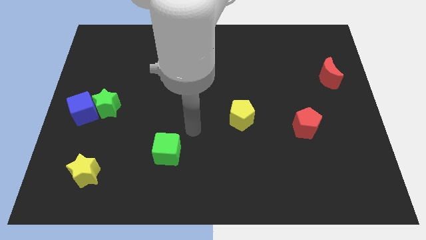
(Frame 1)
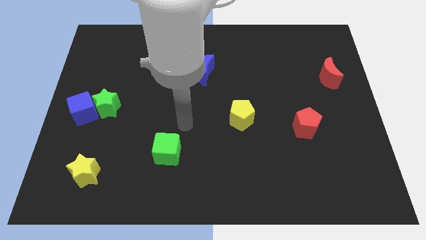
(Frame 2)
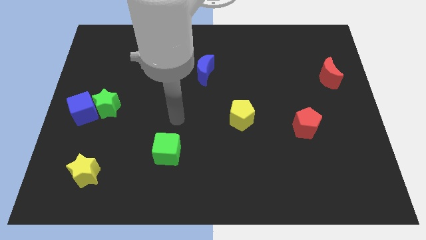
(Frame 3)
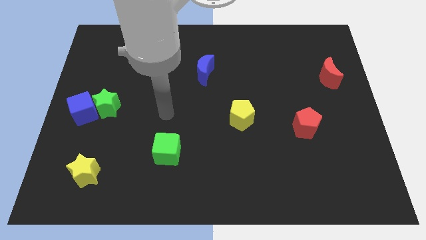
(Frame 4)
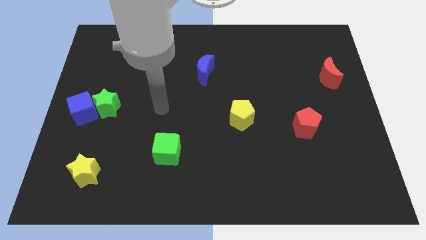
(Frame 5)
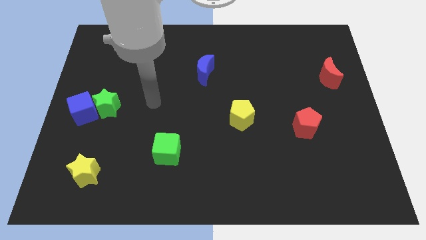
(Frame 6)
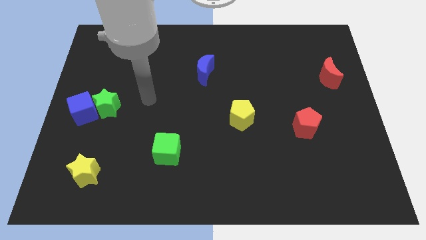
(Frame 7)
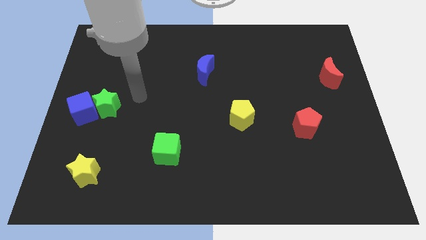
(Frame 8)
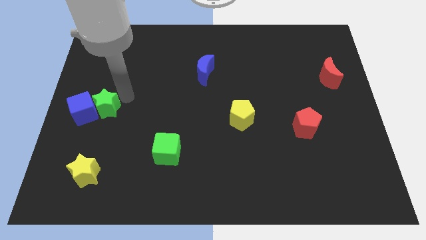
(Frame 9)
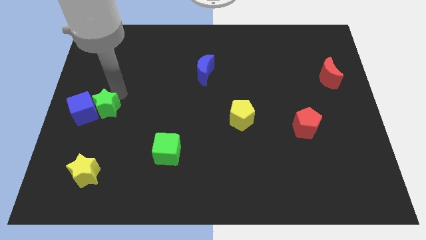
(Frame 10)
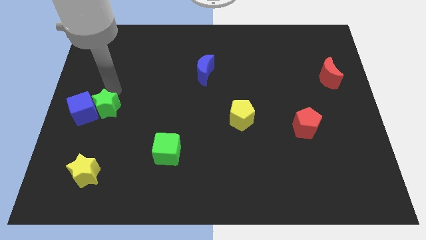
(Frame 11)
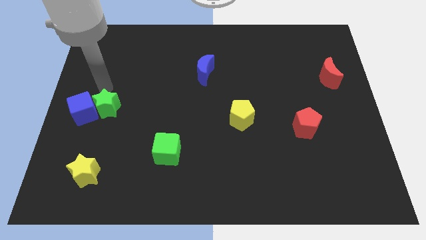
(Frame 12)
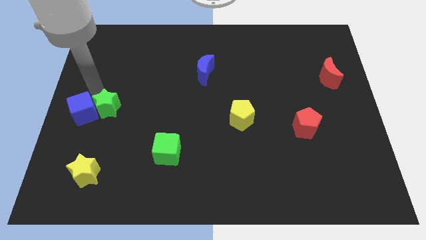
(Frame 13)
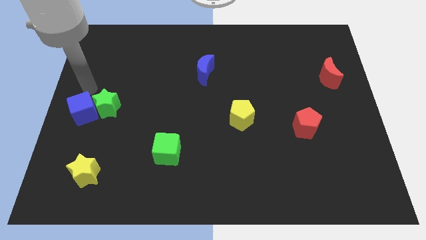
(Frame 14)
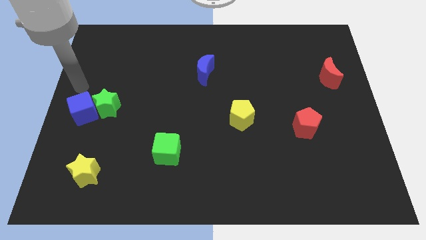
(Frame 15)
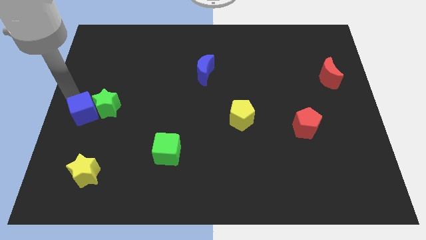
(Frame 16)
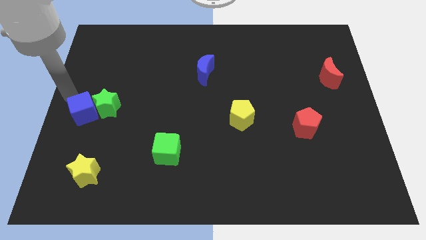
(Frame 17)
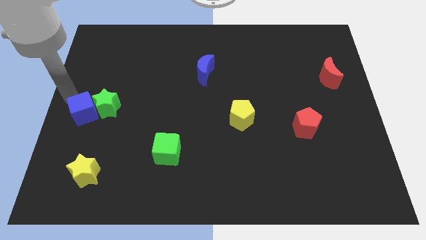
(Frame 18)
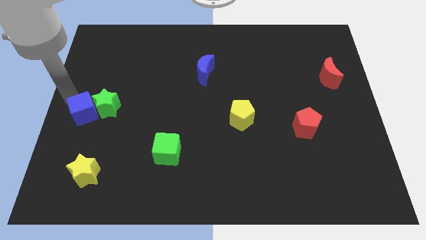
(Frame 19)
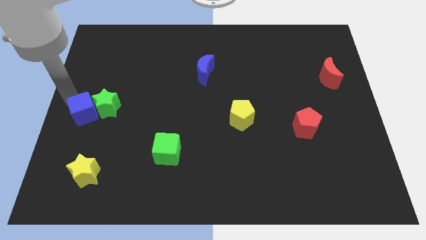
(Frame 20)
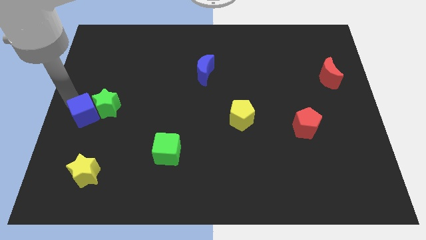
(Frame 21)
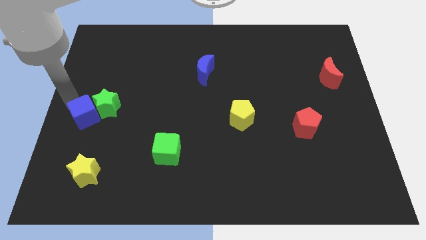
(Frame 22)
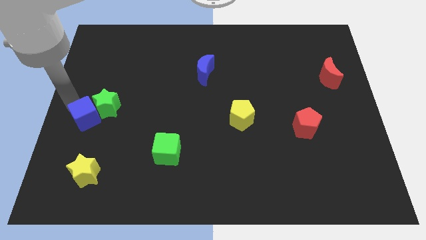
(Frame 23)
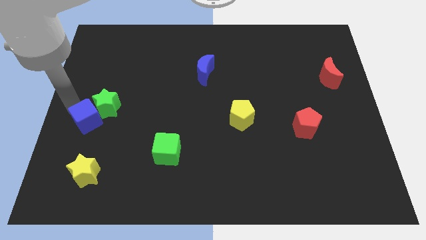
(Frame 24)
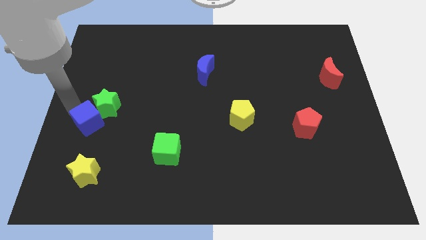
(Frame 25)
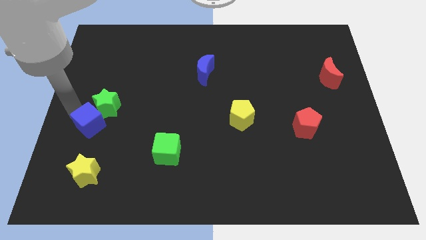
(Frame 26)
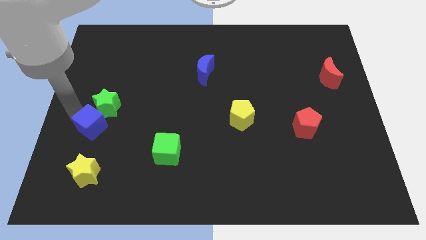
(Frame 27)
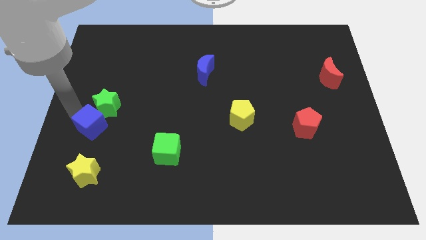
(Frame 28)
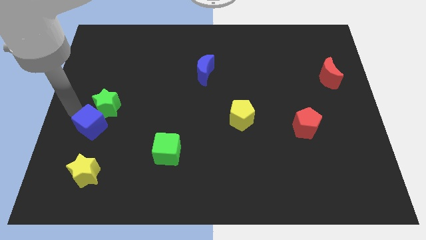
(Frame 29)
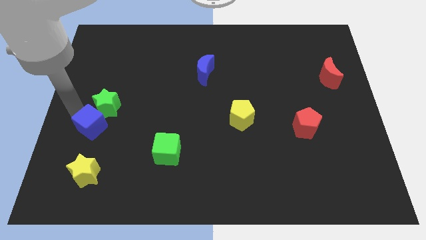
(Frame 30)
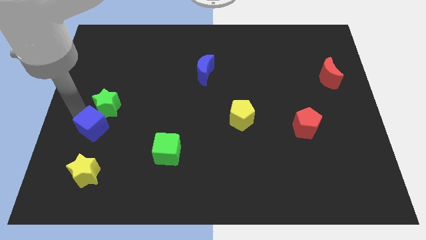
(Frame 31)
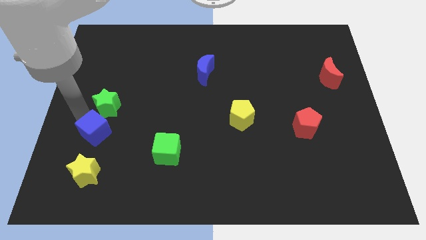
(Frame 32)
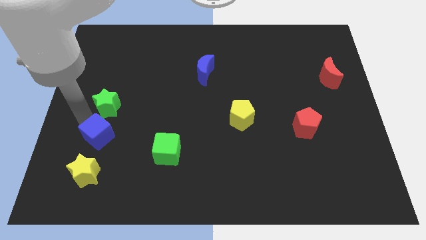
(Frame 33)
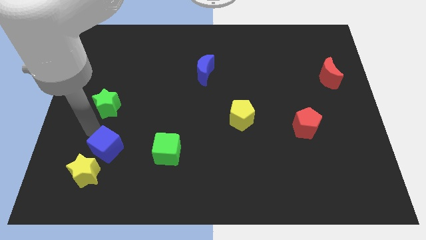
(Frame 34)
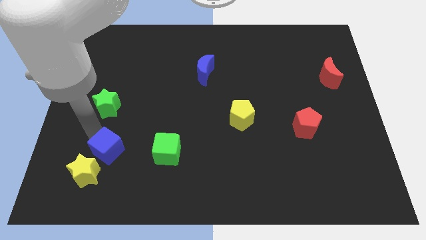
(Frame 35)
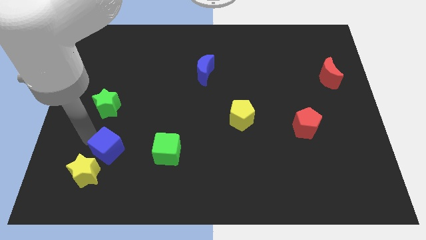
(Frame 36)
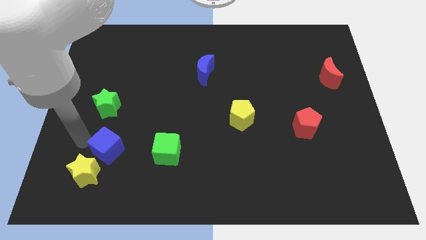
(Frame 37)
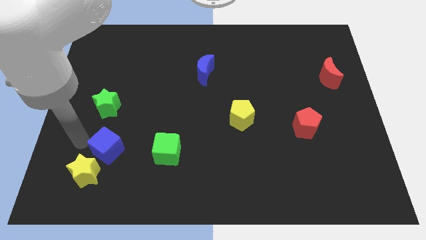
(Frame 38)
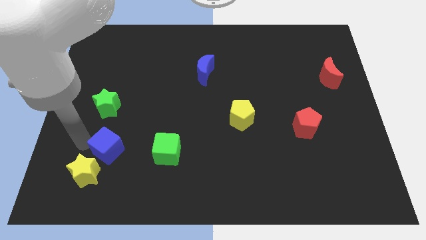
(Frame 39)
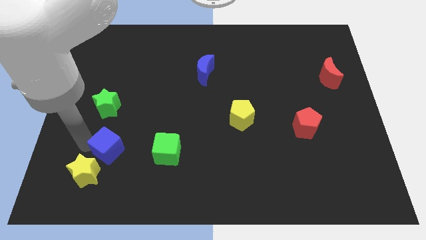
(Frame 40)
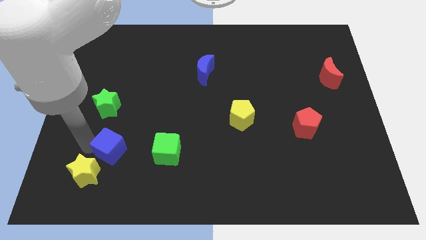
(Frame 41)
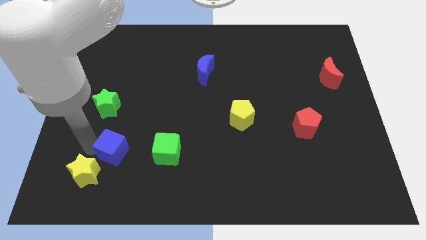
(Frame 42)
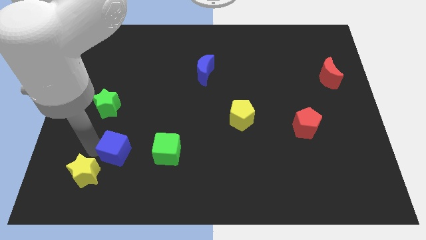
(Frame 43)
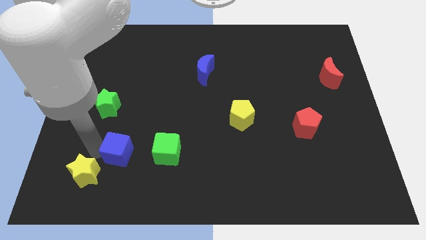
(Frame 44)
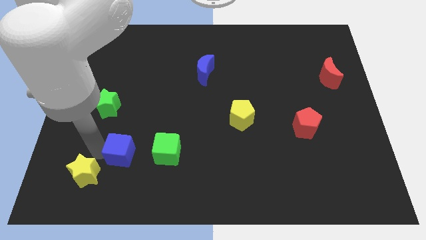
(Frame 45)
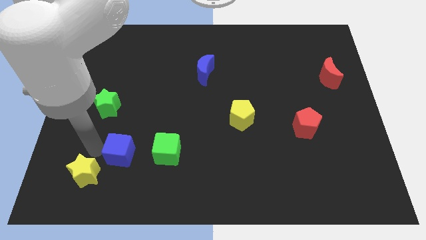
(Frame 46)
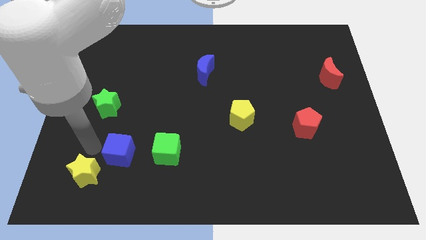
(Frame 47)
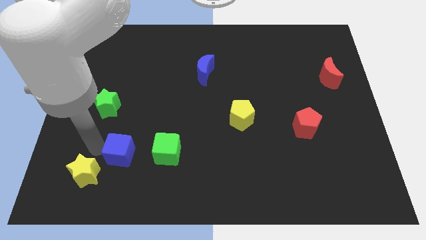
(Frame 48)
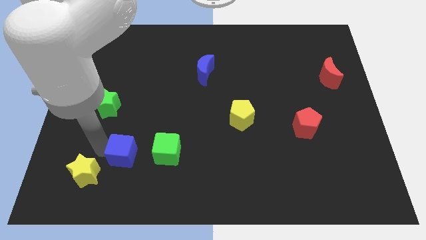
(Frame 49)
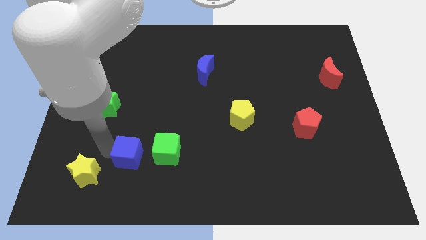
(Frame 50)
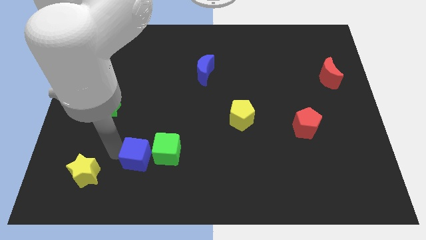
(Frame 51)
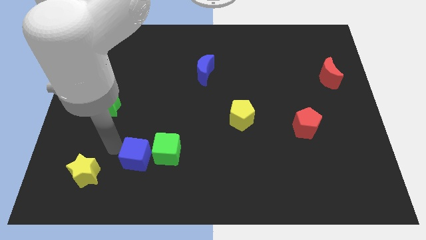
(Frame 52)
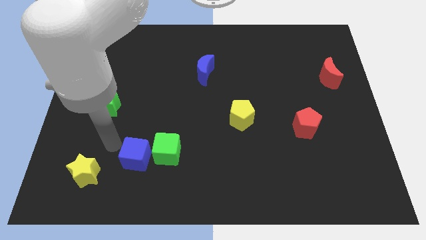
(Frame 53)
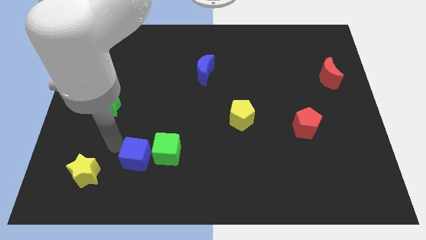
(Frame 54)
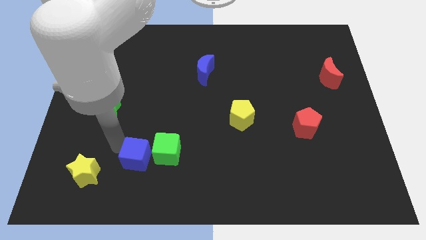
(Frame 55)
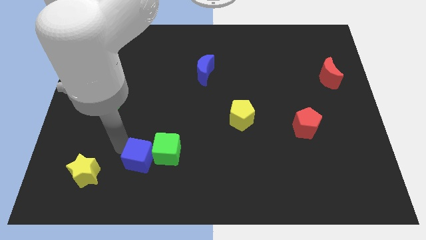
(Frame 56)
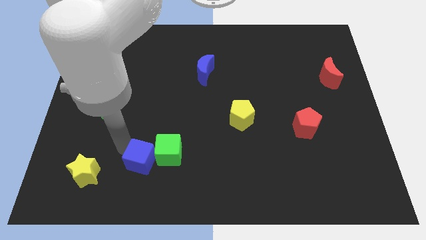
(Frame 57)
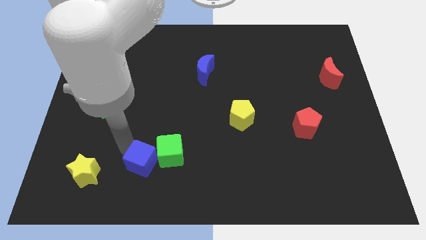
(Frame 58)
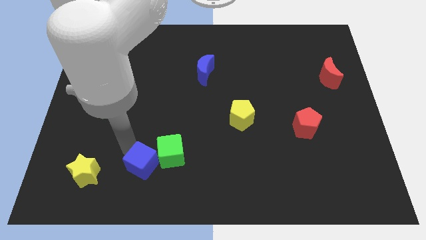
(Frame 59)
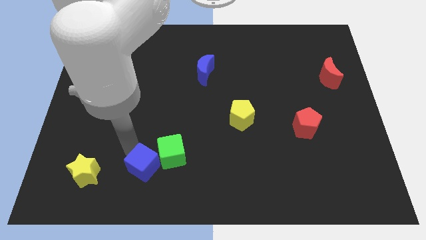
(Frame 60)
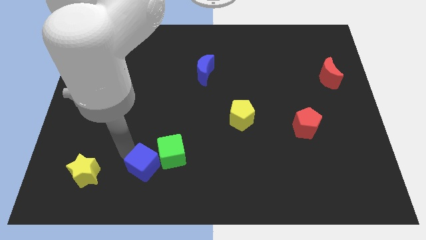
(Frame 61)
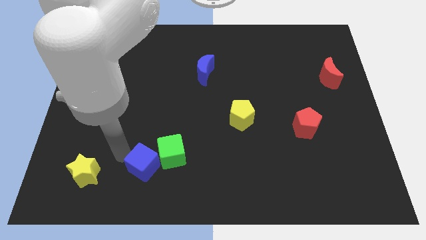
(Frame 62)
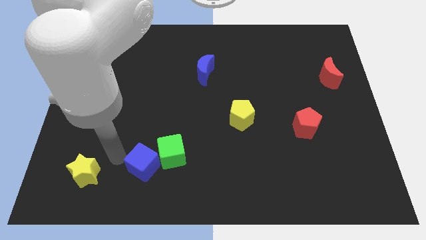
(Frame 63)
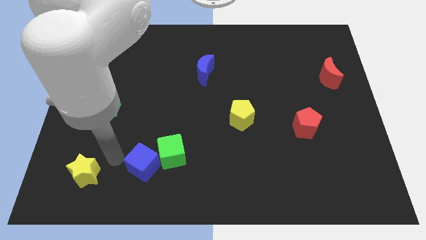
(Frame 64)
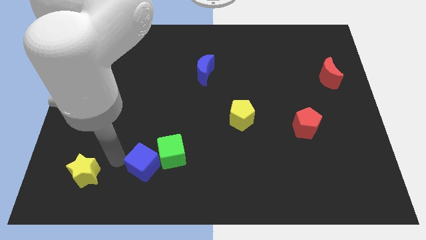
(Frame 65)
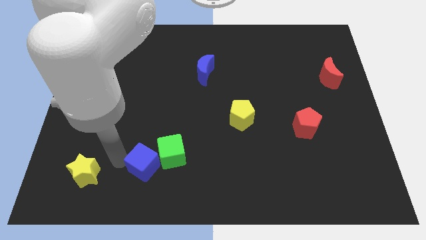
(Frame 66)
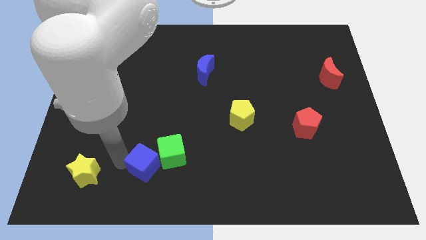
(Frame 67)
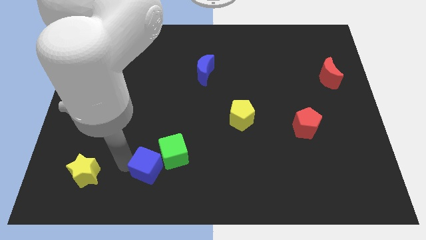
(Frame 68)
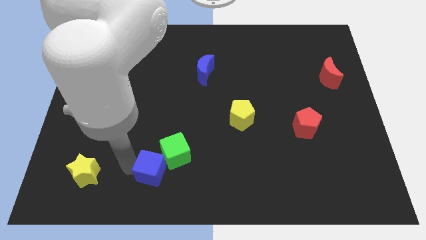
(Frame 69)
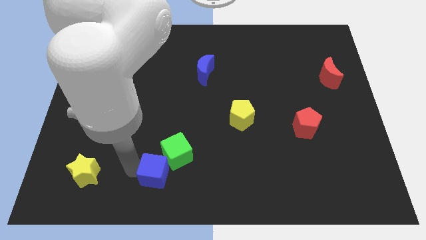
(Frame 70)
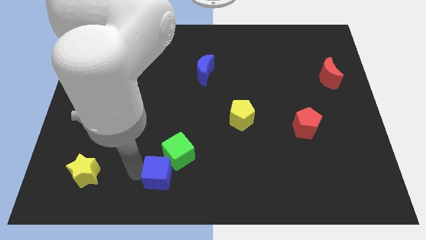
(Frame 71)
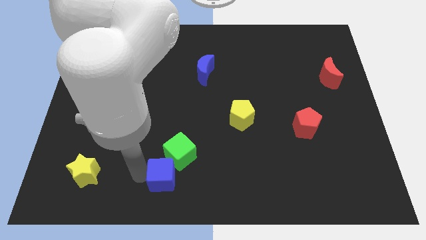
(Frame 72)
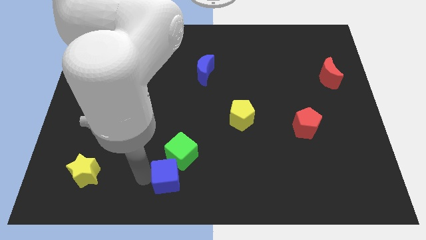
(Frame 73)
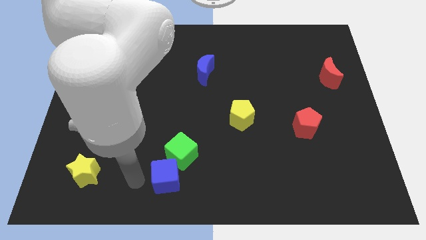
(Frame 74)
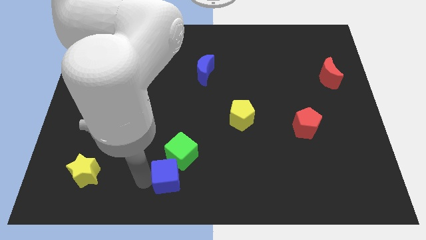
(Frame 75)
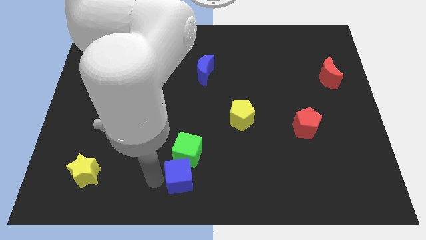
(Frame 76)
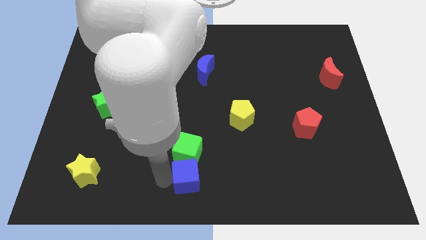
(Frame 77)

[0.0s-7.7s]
slide the blue cube to the bottom right side of the green cube
